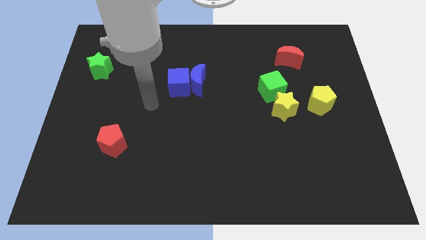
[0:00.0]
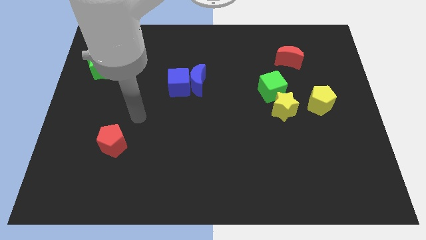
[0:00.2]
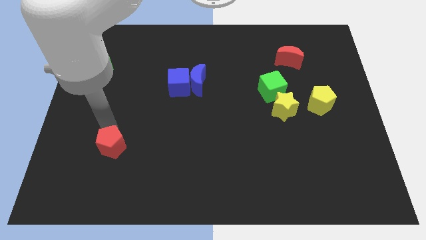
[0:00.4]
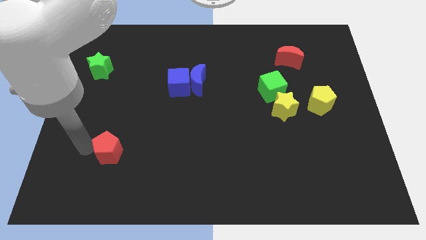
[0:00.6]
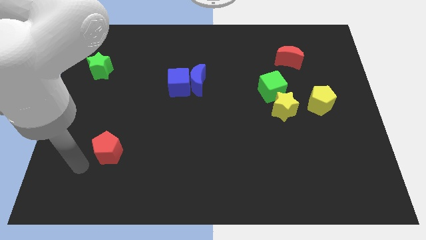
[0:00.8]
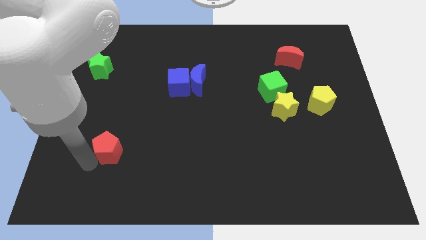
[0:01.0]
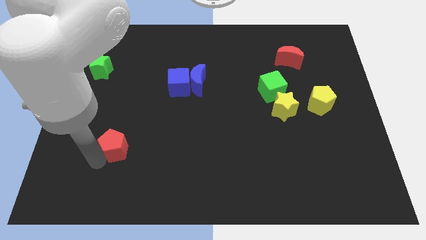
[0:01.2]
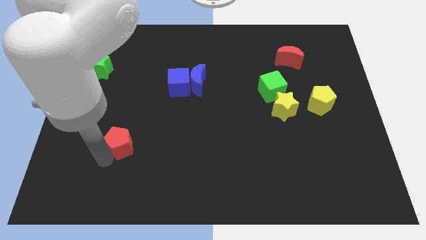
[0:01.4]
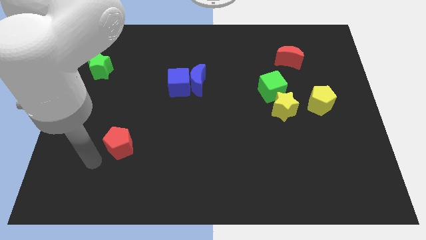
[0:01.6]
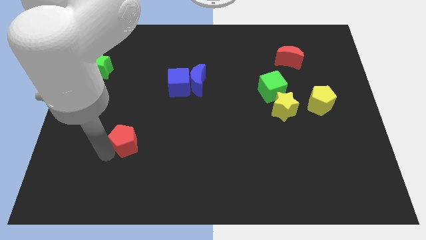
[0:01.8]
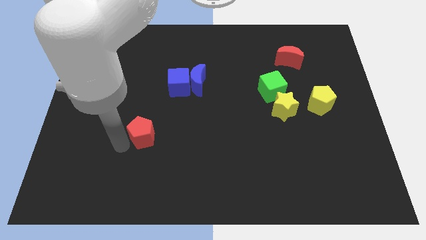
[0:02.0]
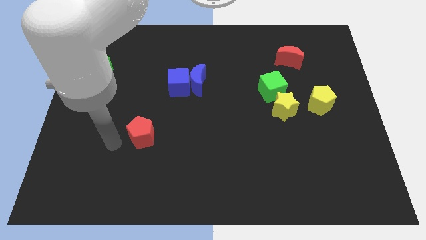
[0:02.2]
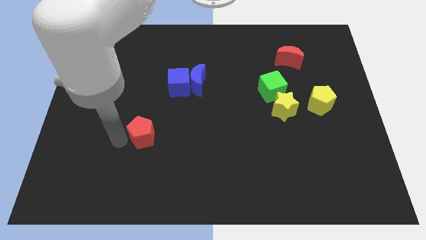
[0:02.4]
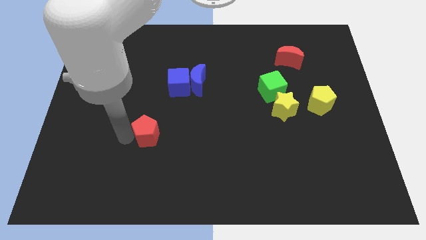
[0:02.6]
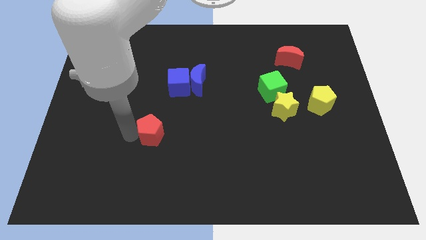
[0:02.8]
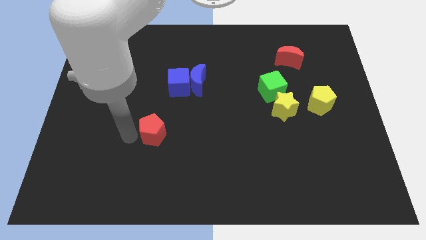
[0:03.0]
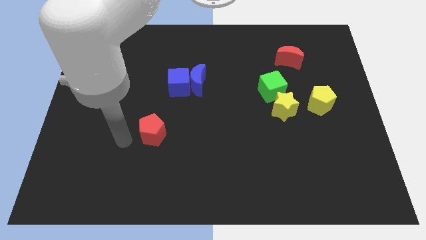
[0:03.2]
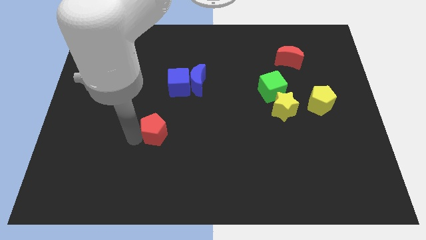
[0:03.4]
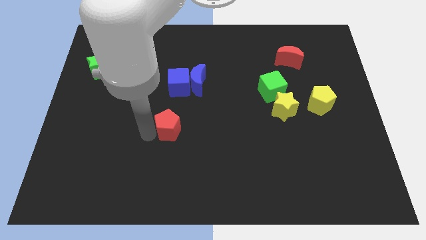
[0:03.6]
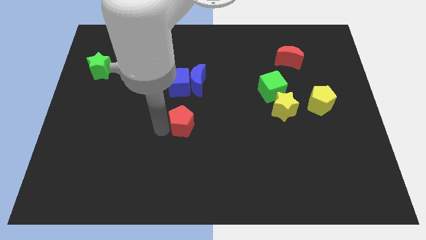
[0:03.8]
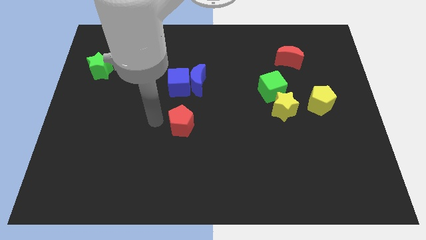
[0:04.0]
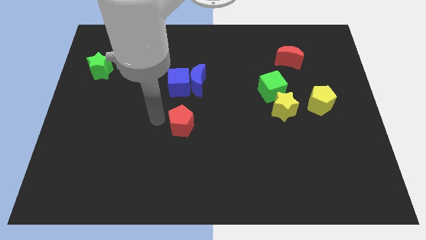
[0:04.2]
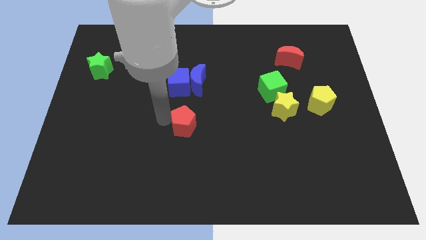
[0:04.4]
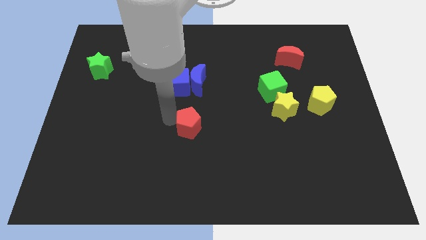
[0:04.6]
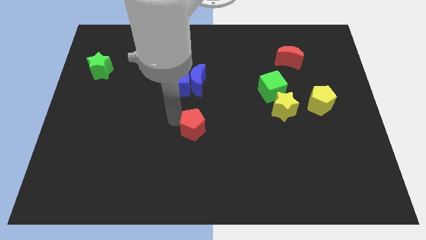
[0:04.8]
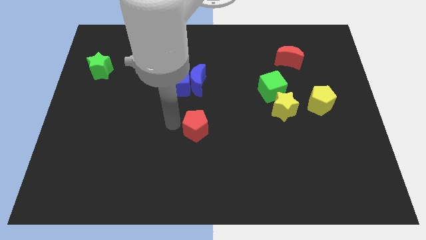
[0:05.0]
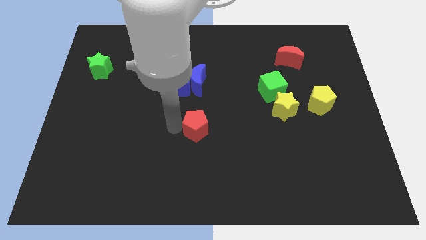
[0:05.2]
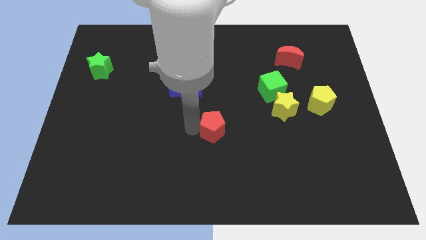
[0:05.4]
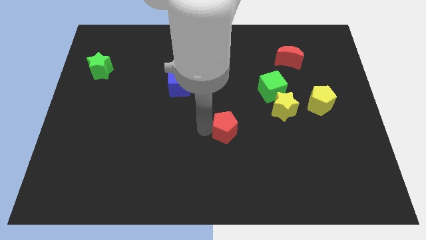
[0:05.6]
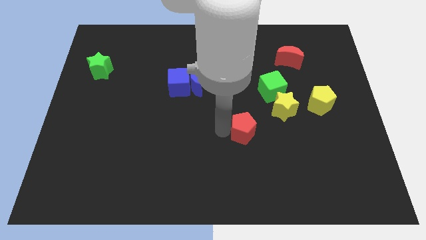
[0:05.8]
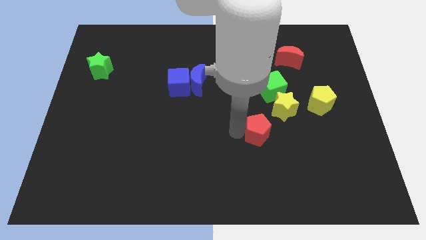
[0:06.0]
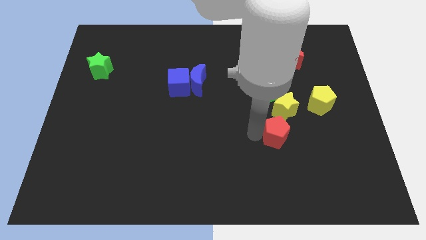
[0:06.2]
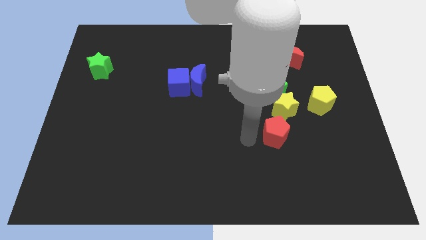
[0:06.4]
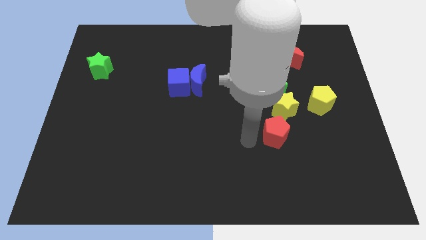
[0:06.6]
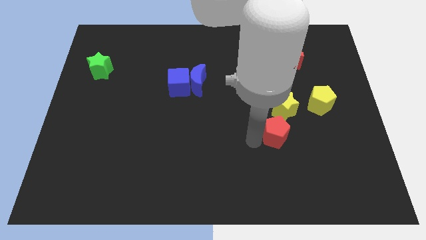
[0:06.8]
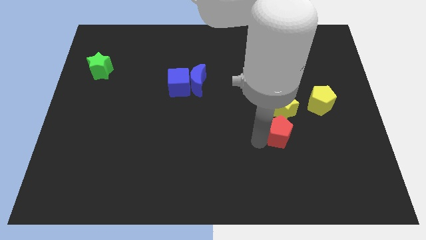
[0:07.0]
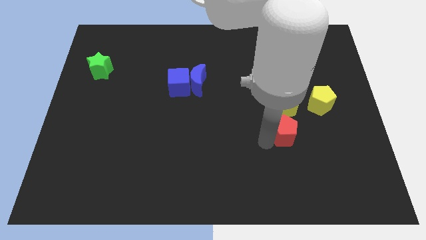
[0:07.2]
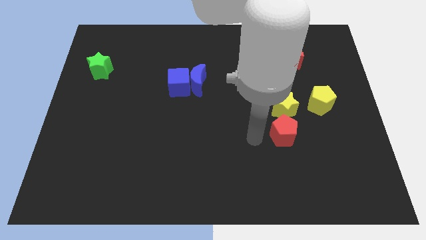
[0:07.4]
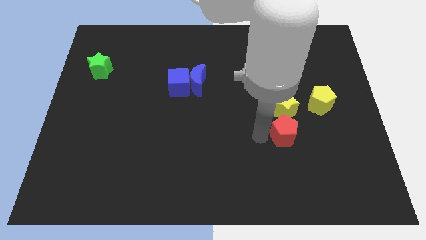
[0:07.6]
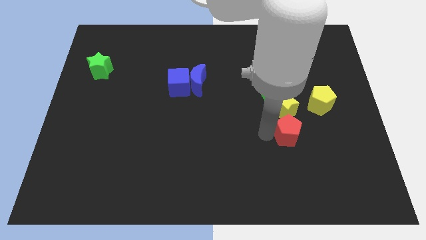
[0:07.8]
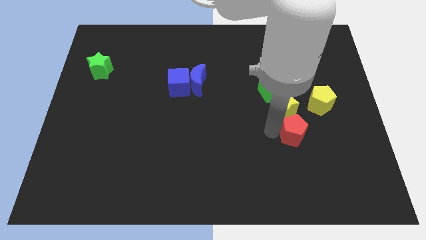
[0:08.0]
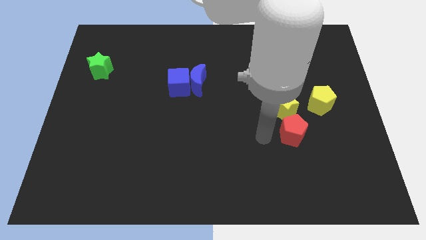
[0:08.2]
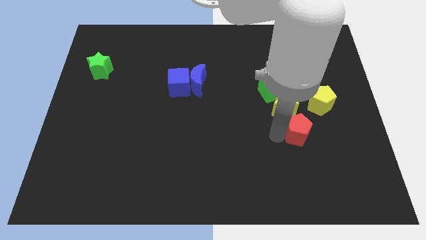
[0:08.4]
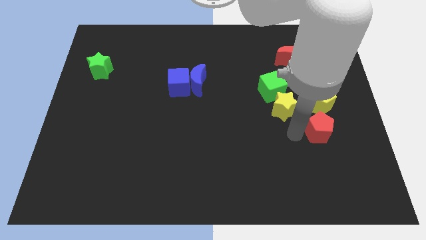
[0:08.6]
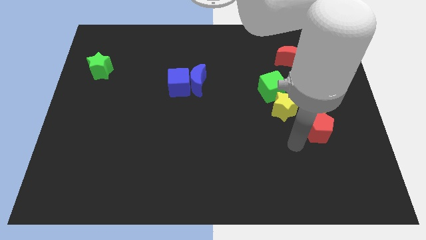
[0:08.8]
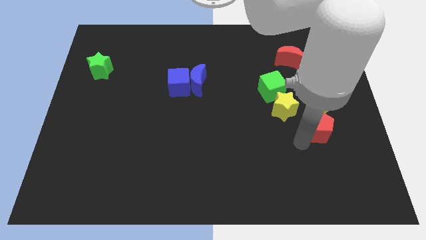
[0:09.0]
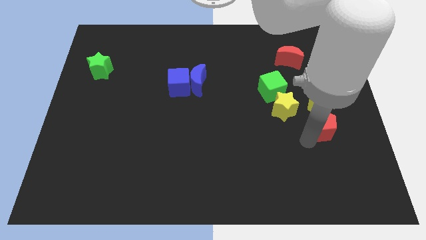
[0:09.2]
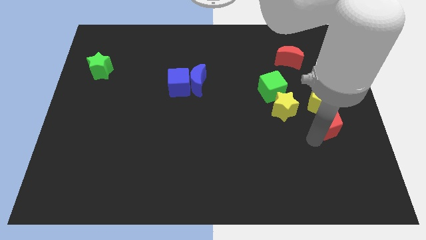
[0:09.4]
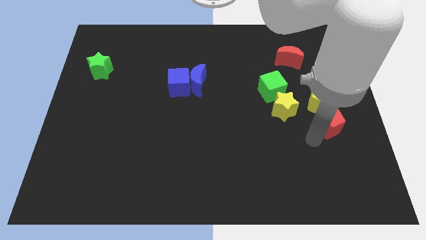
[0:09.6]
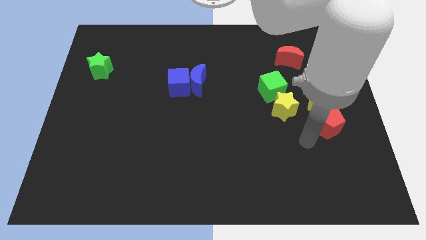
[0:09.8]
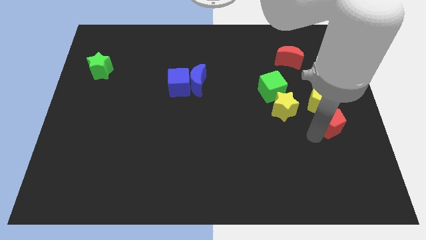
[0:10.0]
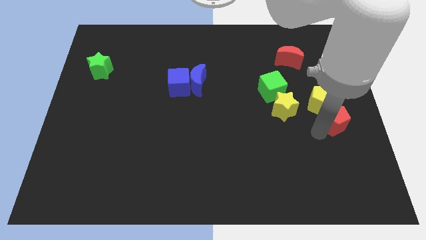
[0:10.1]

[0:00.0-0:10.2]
move the red pentagon to the right side of the board
